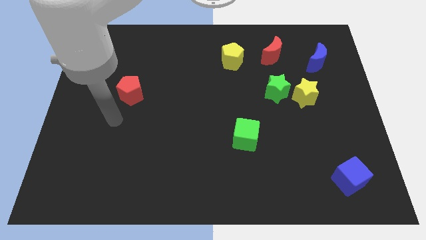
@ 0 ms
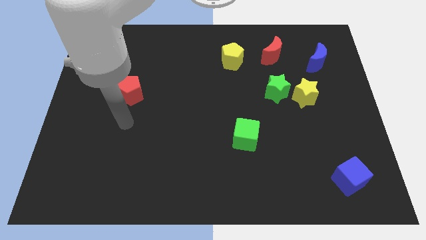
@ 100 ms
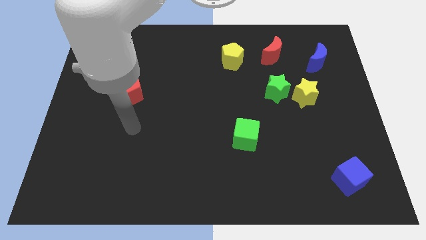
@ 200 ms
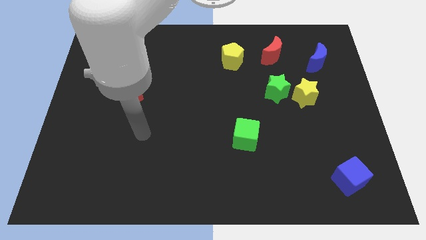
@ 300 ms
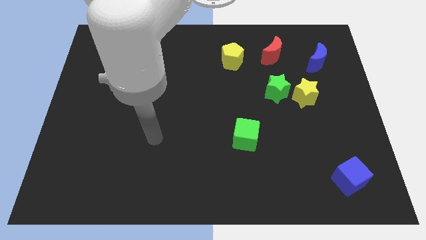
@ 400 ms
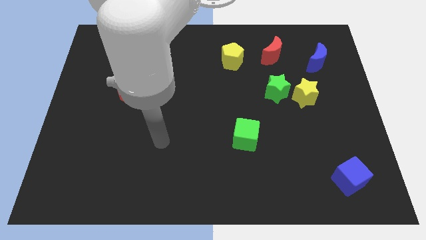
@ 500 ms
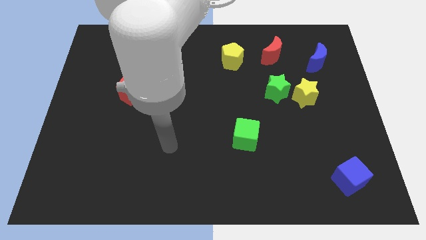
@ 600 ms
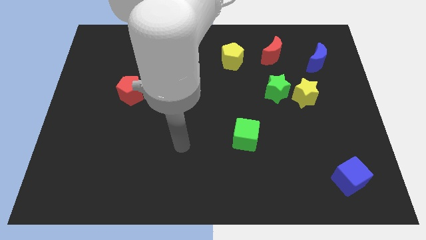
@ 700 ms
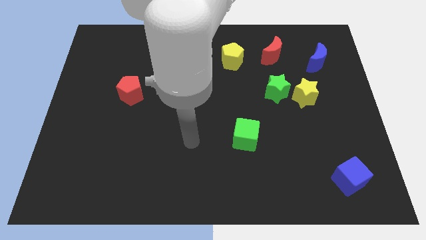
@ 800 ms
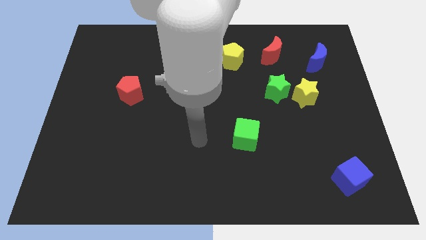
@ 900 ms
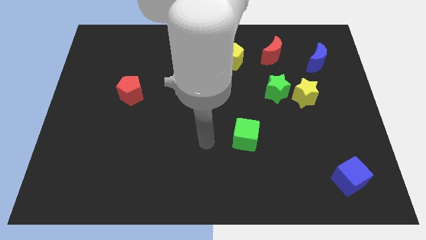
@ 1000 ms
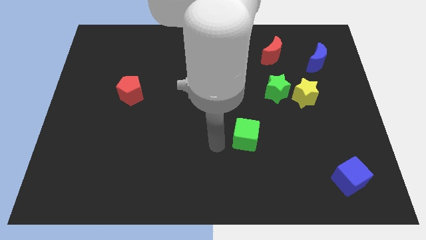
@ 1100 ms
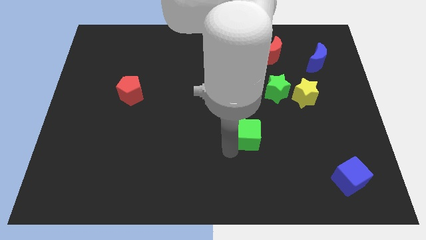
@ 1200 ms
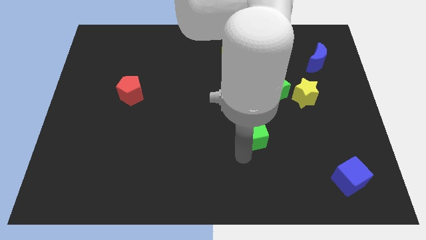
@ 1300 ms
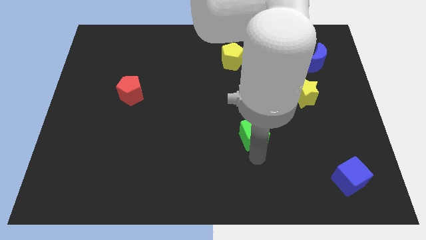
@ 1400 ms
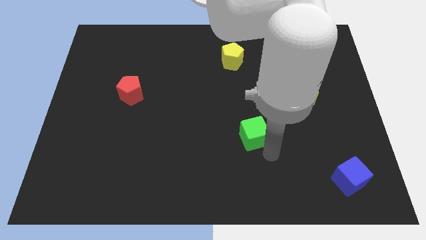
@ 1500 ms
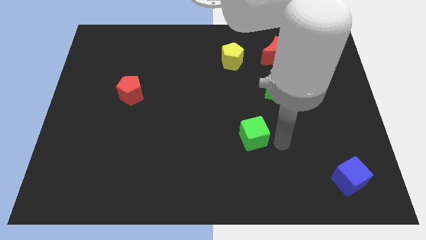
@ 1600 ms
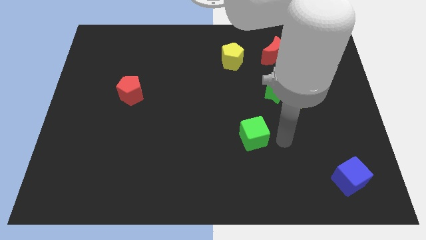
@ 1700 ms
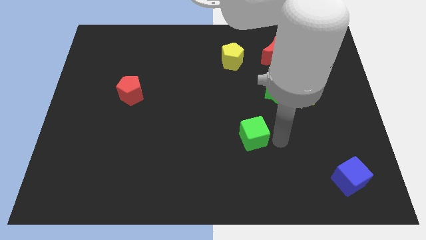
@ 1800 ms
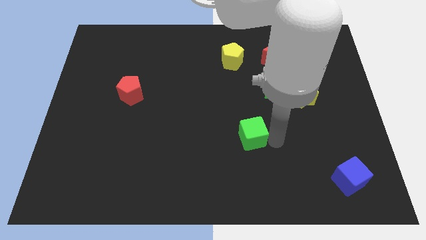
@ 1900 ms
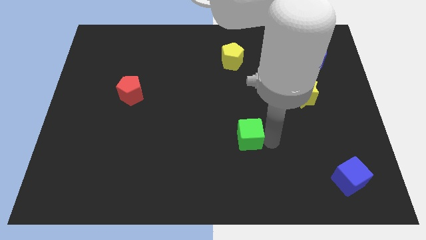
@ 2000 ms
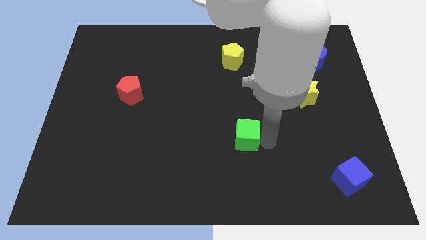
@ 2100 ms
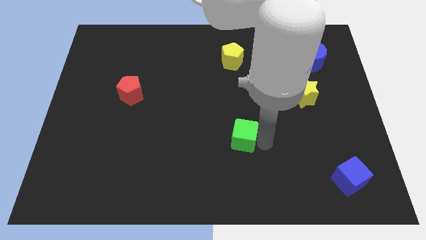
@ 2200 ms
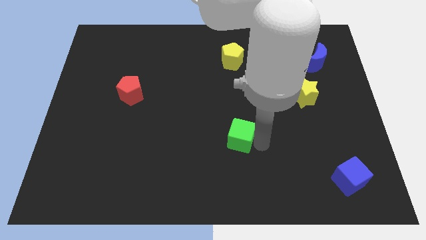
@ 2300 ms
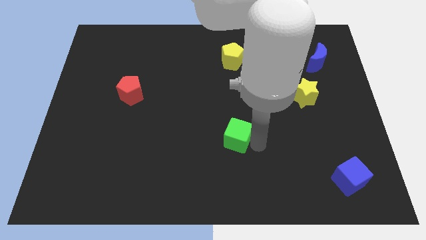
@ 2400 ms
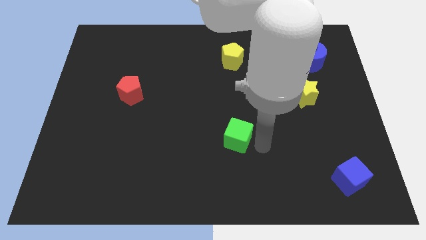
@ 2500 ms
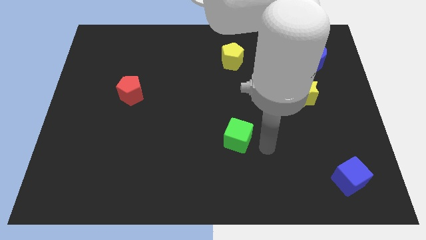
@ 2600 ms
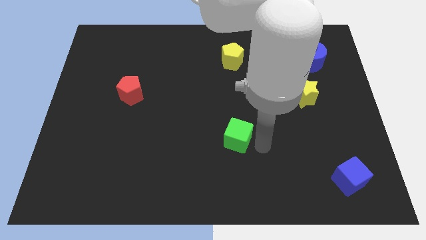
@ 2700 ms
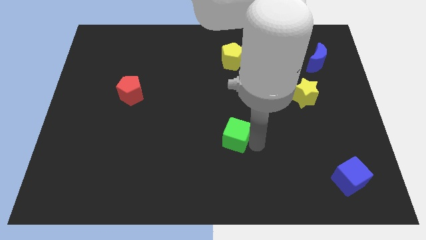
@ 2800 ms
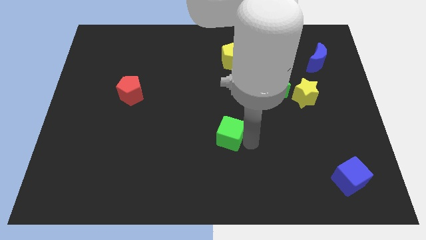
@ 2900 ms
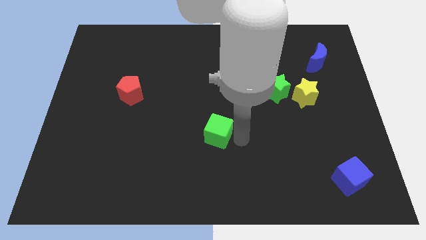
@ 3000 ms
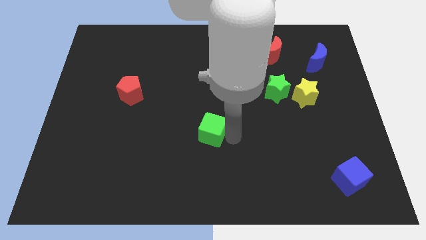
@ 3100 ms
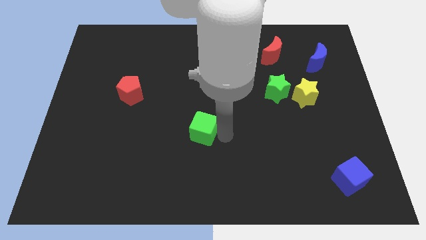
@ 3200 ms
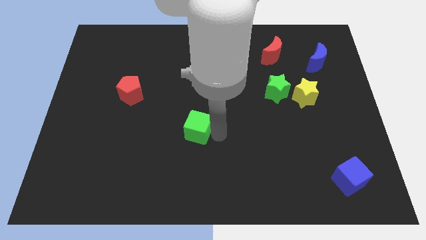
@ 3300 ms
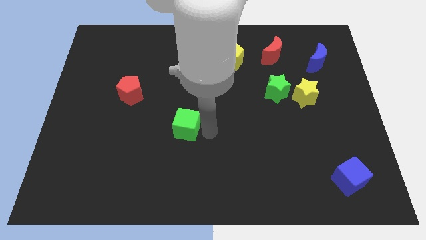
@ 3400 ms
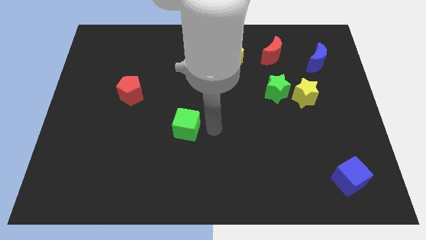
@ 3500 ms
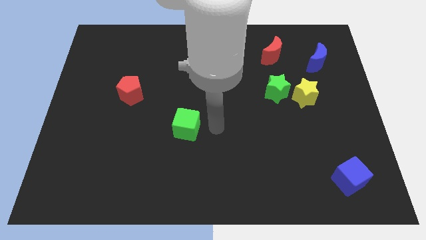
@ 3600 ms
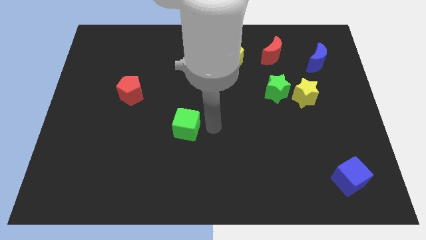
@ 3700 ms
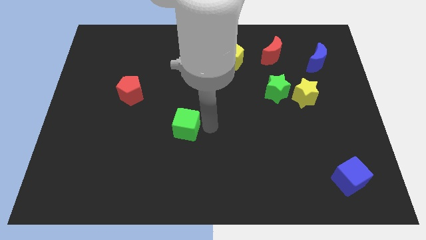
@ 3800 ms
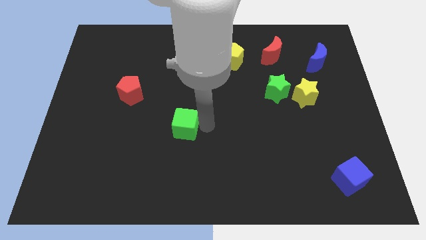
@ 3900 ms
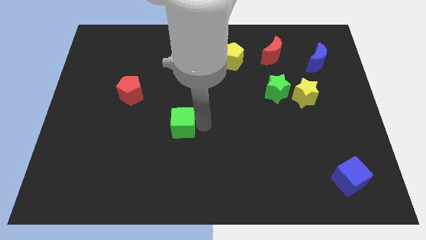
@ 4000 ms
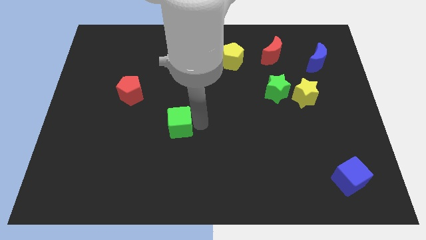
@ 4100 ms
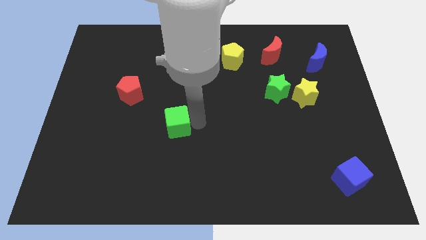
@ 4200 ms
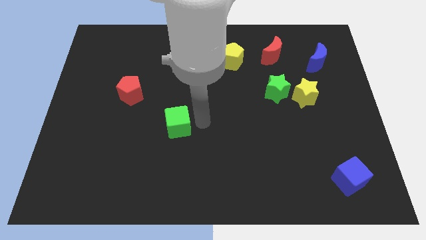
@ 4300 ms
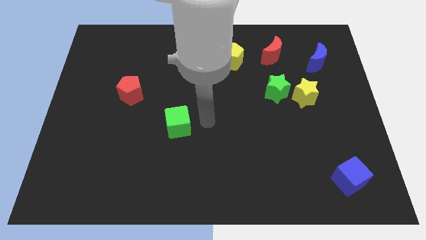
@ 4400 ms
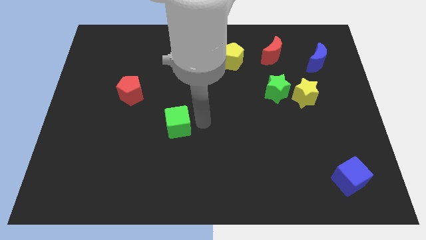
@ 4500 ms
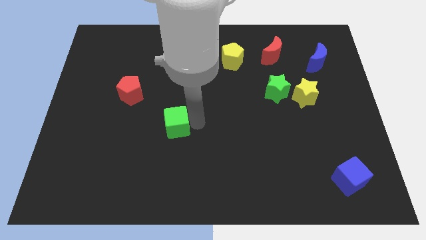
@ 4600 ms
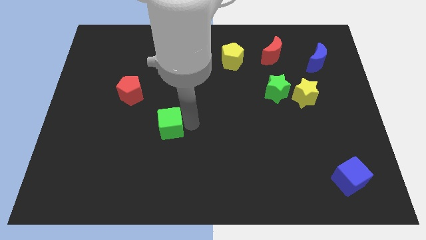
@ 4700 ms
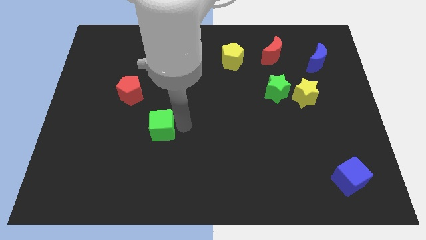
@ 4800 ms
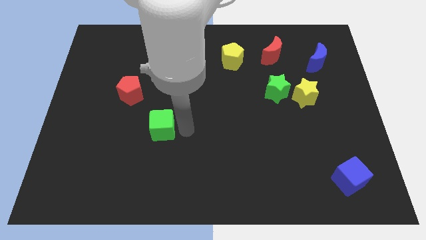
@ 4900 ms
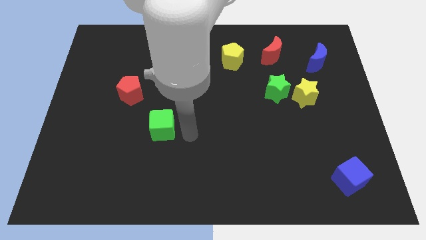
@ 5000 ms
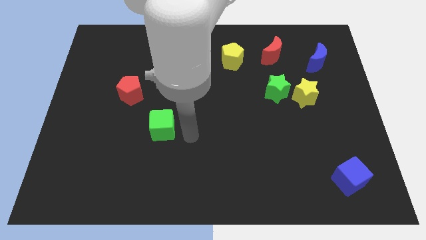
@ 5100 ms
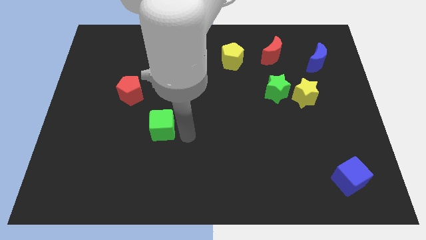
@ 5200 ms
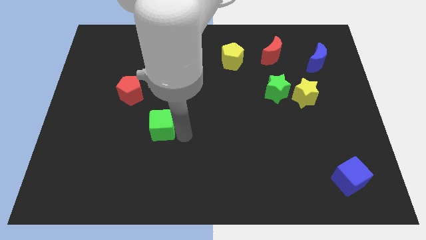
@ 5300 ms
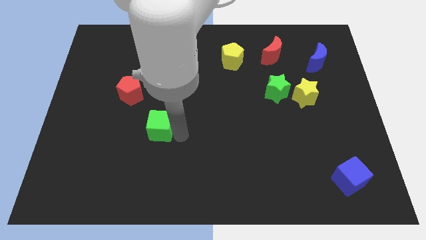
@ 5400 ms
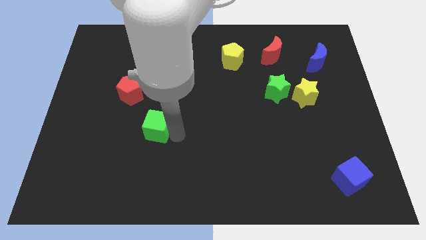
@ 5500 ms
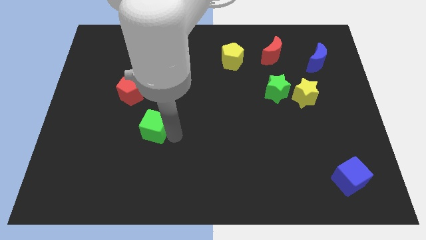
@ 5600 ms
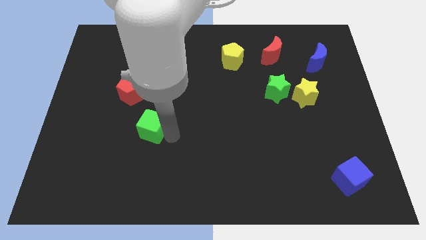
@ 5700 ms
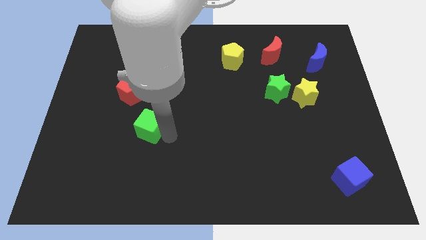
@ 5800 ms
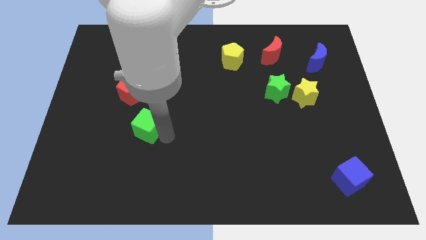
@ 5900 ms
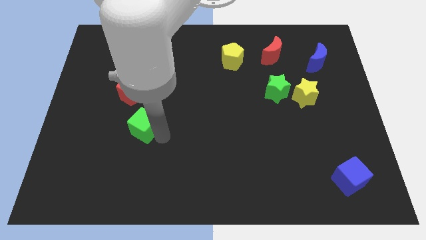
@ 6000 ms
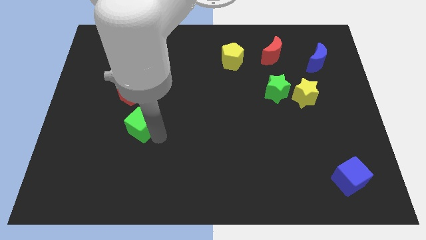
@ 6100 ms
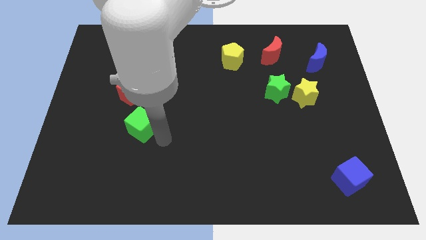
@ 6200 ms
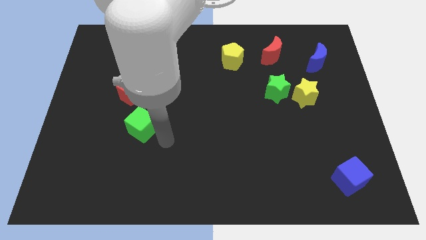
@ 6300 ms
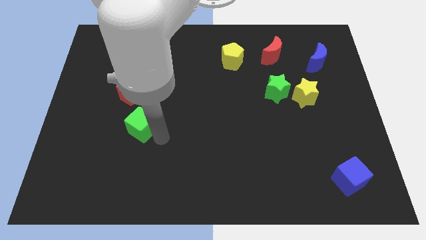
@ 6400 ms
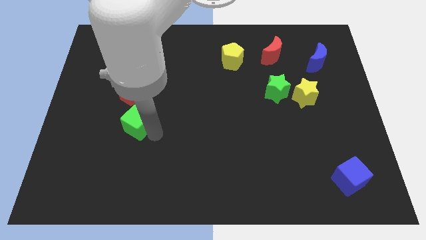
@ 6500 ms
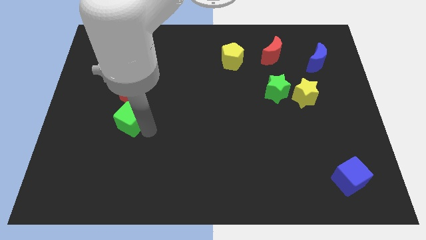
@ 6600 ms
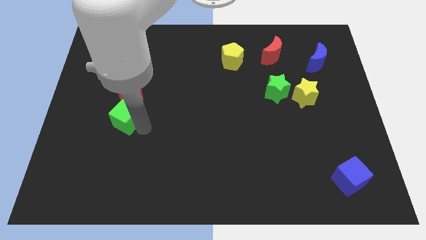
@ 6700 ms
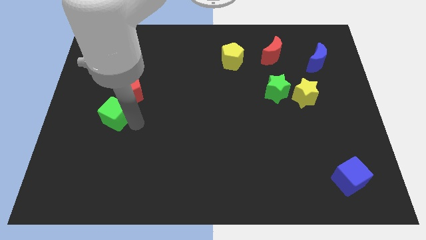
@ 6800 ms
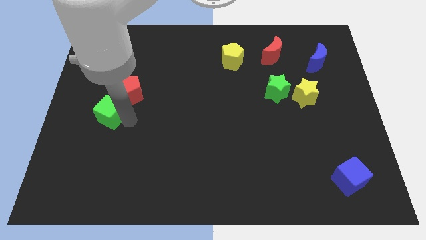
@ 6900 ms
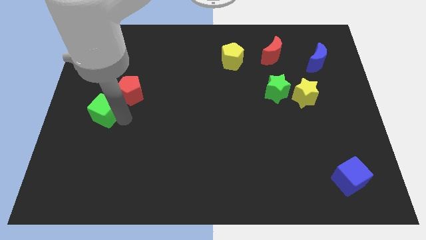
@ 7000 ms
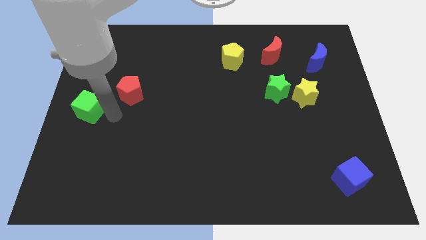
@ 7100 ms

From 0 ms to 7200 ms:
put the green cube to the left side
